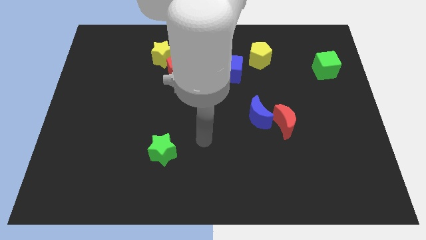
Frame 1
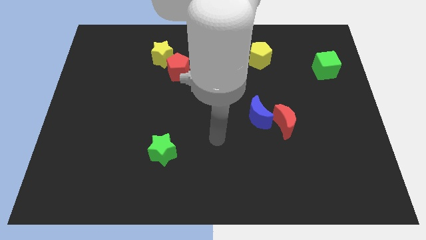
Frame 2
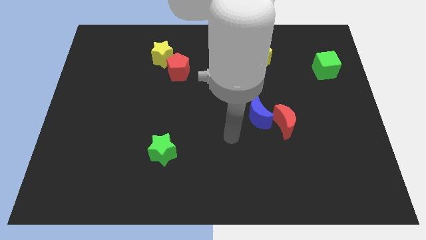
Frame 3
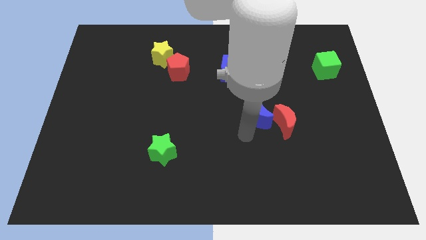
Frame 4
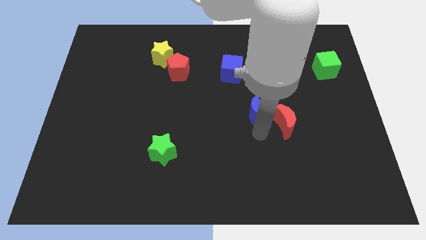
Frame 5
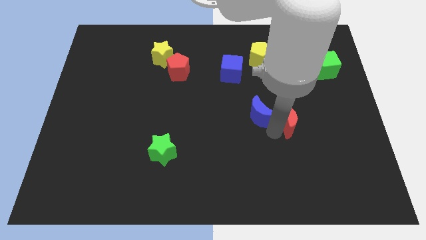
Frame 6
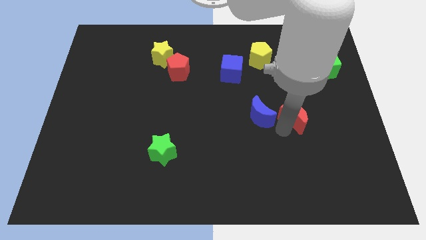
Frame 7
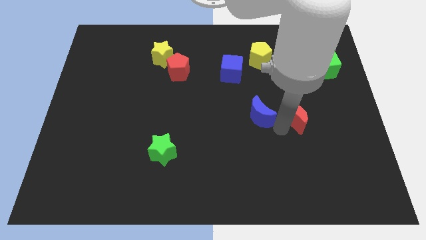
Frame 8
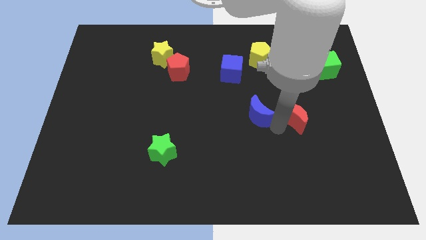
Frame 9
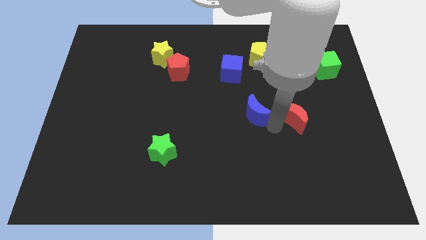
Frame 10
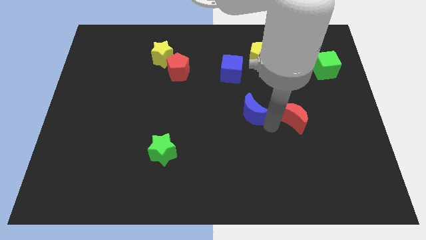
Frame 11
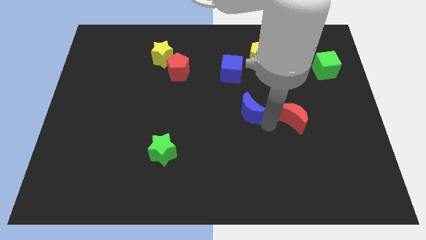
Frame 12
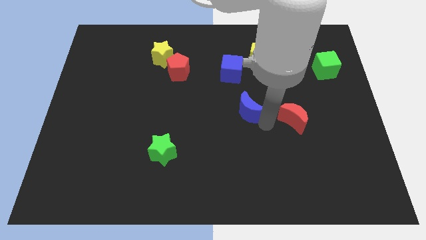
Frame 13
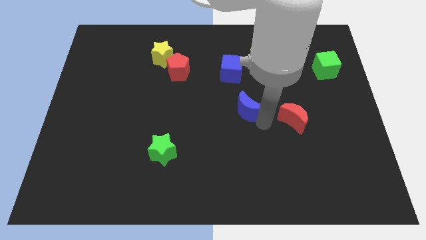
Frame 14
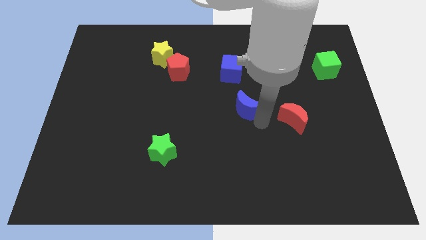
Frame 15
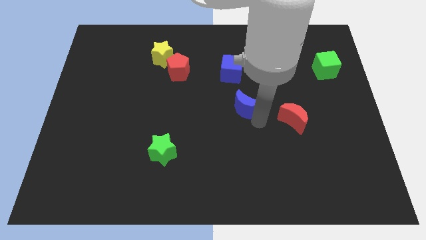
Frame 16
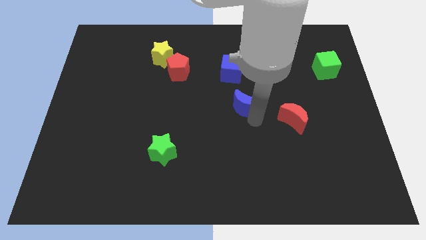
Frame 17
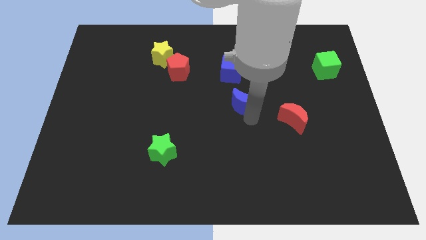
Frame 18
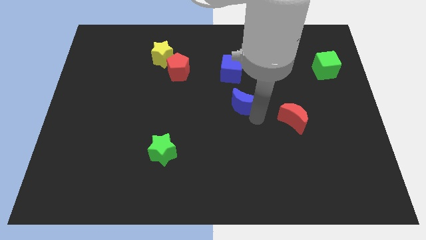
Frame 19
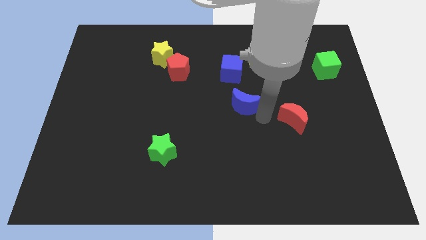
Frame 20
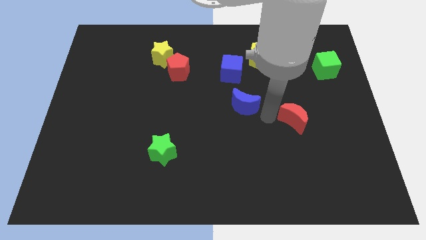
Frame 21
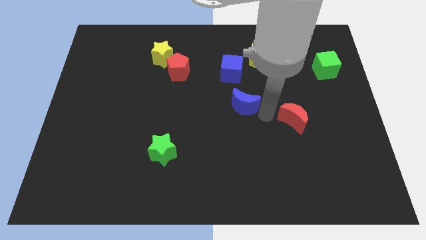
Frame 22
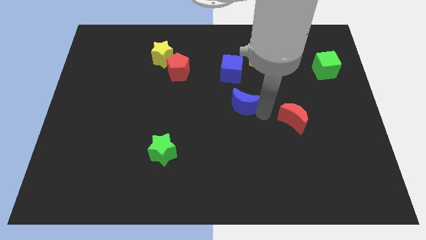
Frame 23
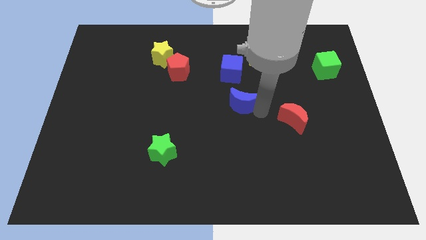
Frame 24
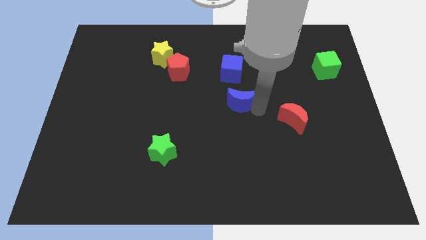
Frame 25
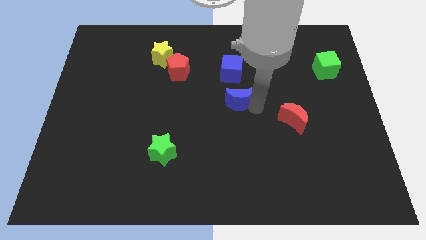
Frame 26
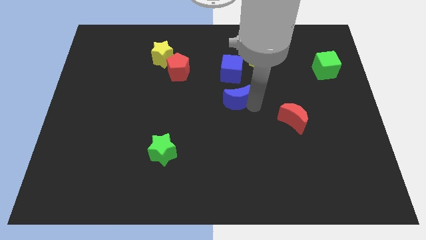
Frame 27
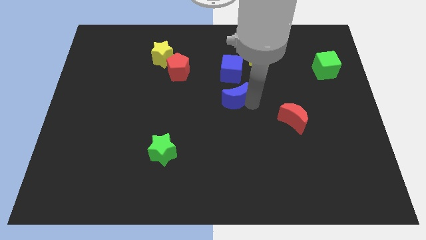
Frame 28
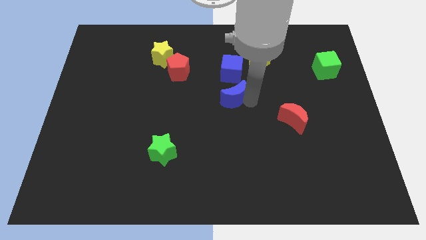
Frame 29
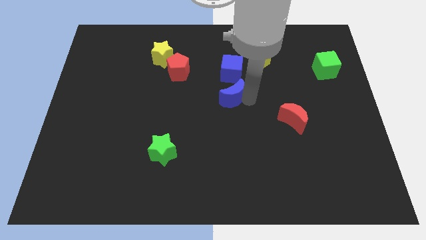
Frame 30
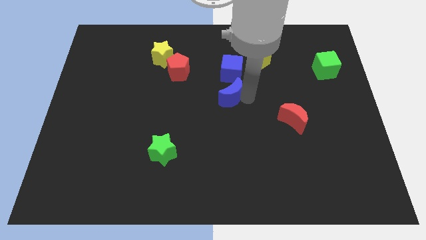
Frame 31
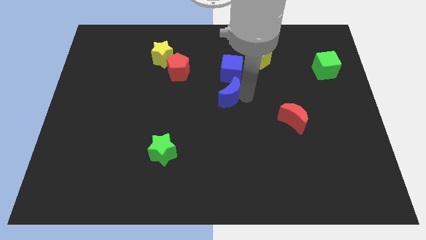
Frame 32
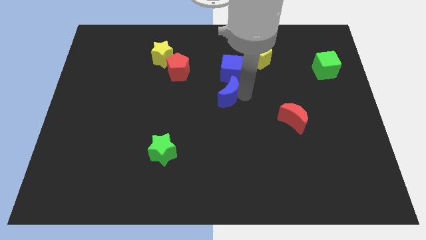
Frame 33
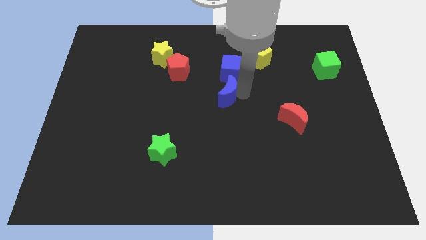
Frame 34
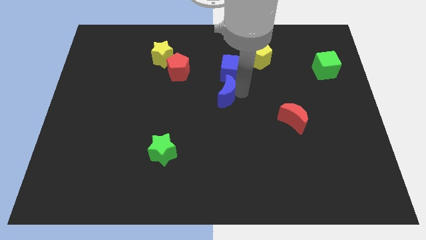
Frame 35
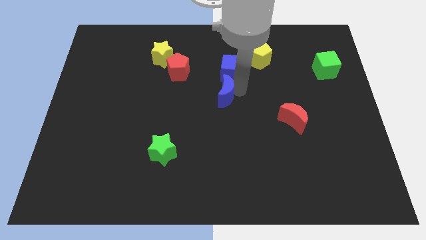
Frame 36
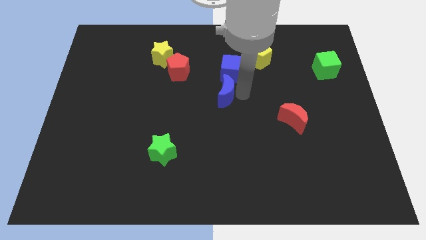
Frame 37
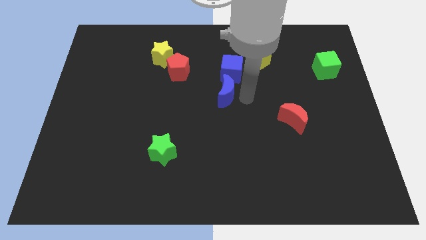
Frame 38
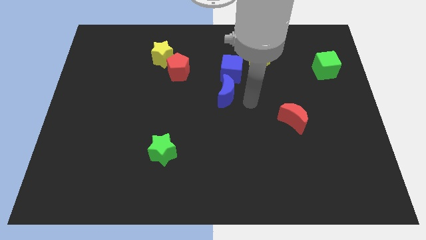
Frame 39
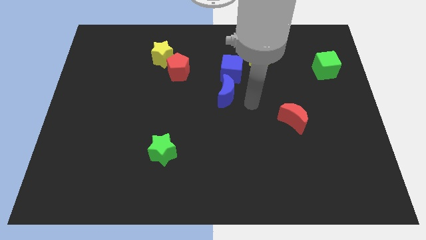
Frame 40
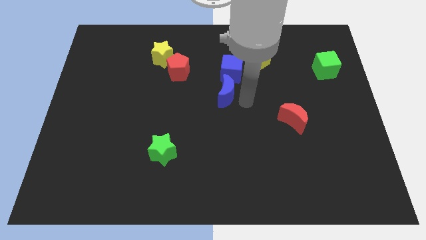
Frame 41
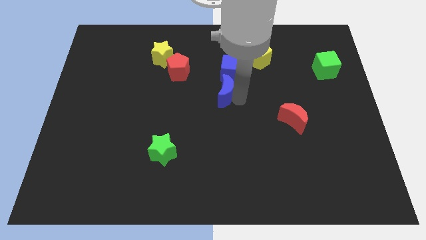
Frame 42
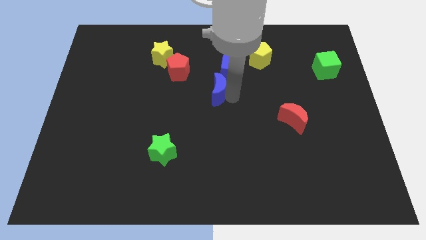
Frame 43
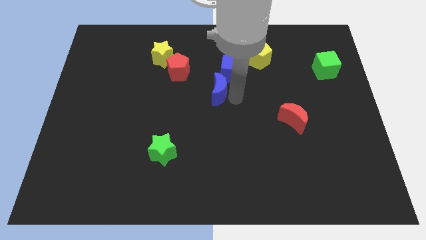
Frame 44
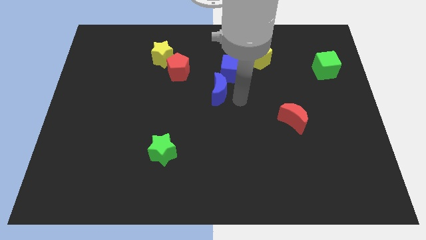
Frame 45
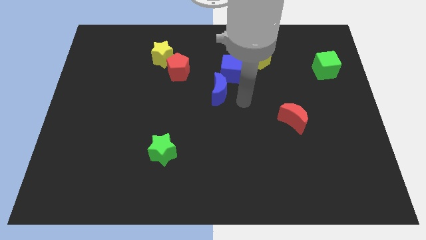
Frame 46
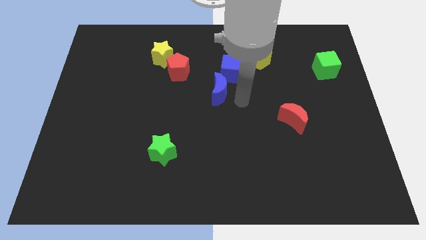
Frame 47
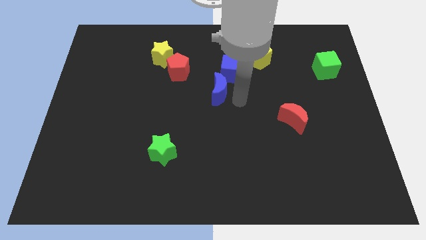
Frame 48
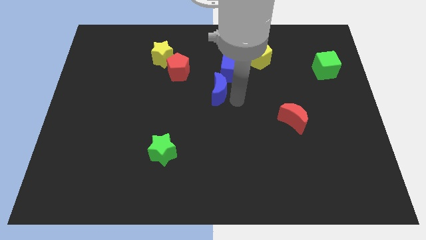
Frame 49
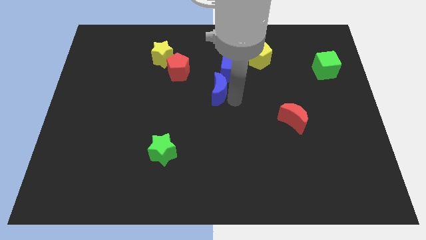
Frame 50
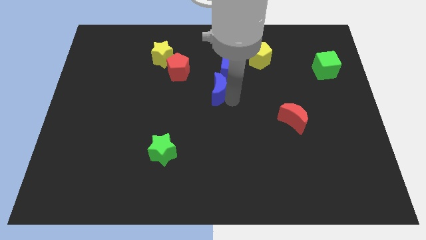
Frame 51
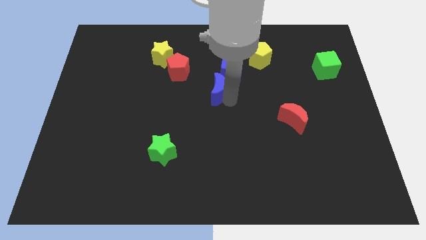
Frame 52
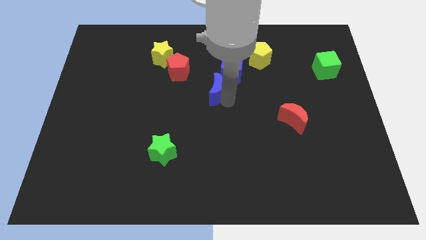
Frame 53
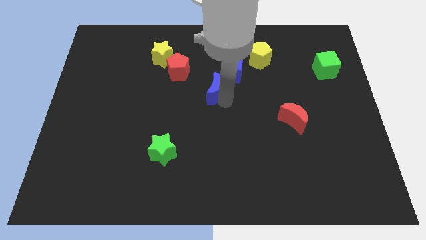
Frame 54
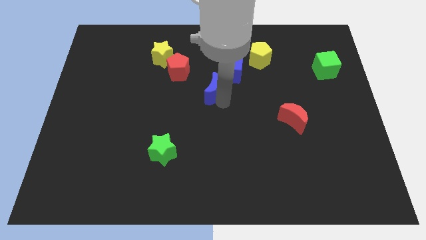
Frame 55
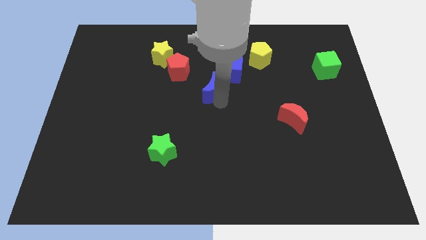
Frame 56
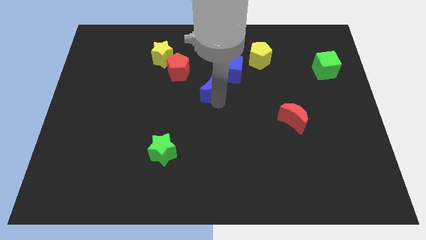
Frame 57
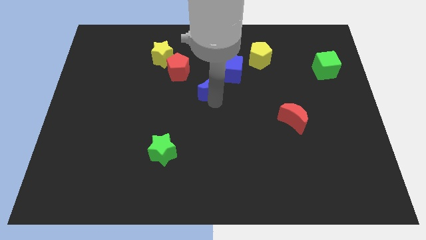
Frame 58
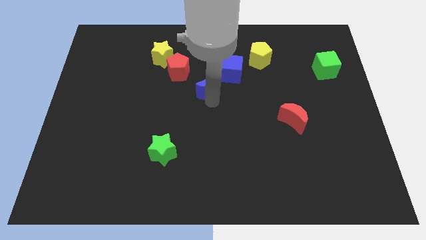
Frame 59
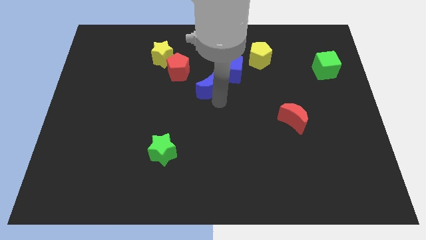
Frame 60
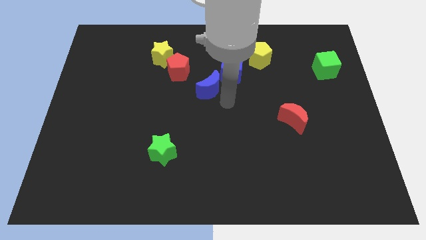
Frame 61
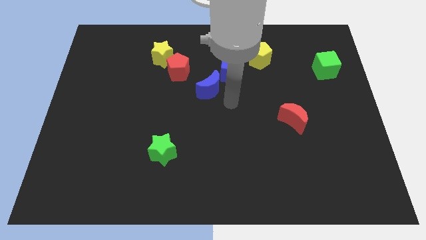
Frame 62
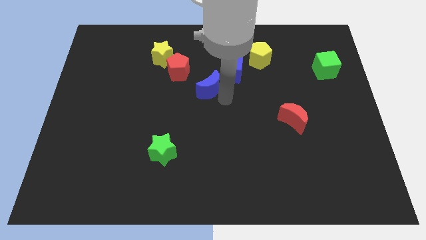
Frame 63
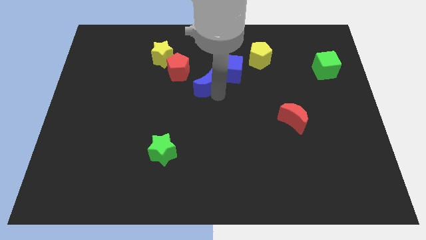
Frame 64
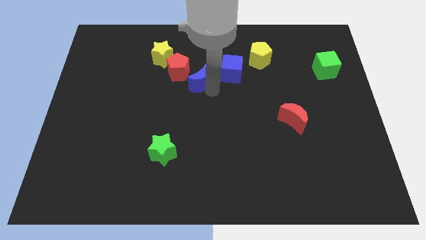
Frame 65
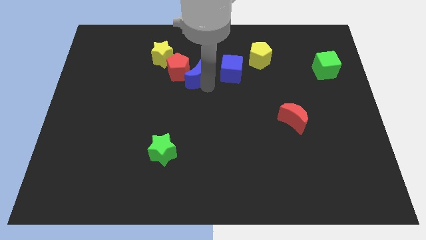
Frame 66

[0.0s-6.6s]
push the blue moon towards the red pentagon
